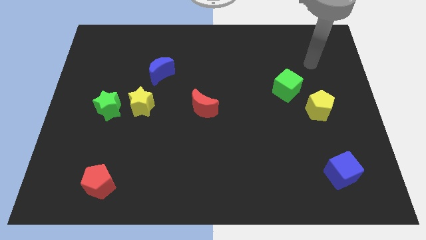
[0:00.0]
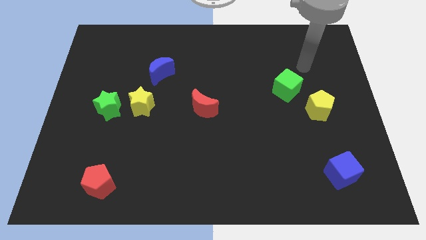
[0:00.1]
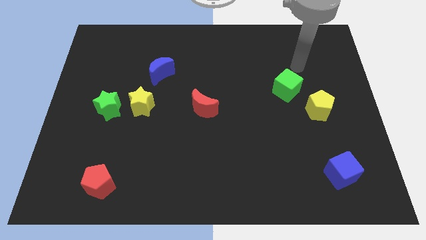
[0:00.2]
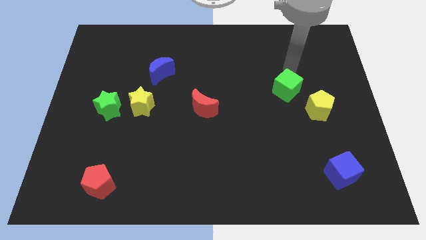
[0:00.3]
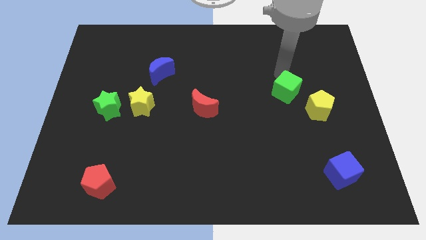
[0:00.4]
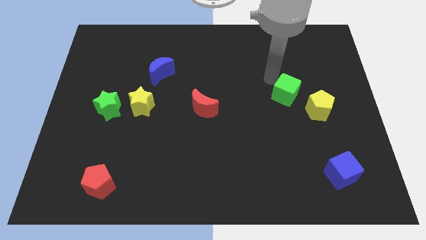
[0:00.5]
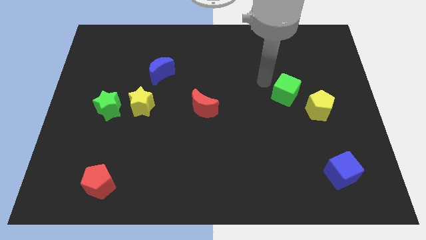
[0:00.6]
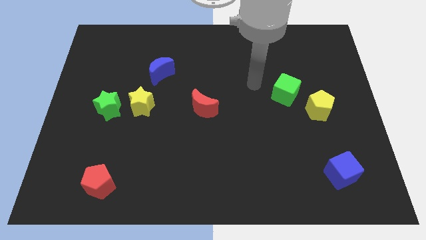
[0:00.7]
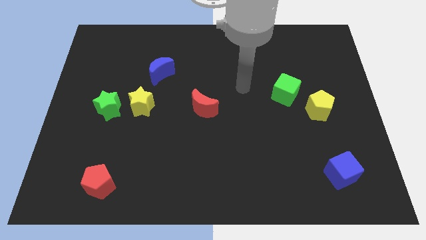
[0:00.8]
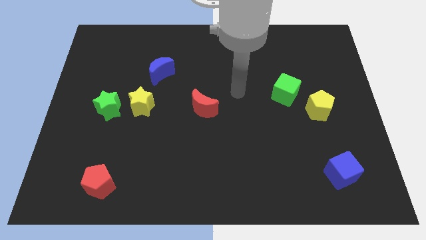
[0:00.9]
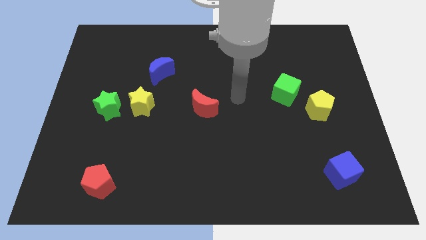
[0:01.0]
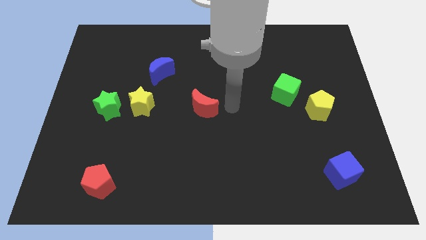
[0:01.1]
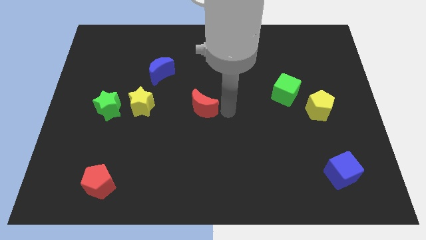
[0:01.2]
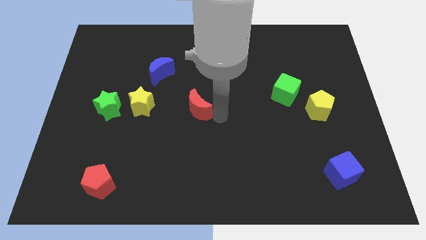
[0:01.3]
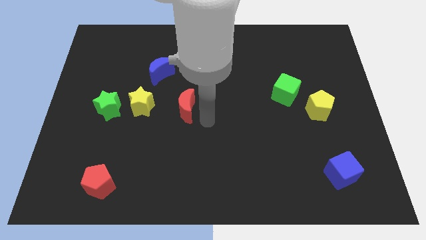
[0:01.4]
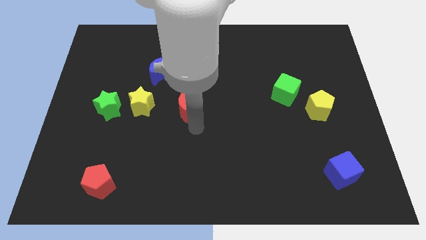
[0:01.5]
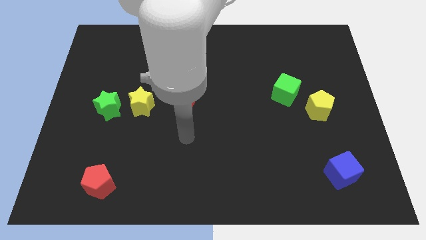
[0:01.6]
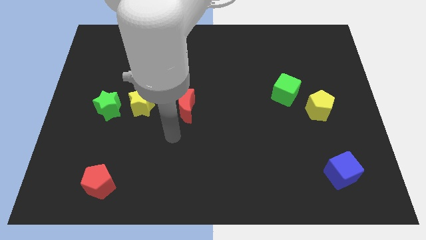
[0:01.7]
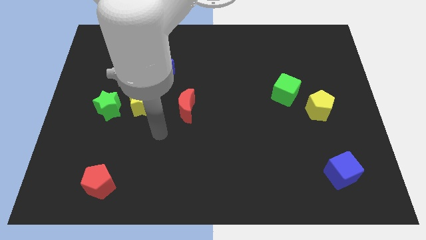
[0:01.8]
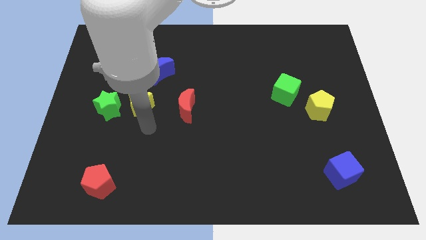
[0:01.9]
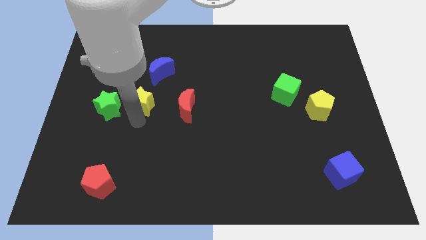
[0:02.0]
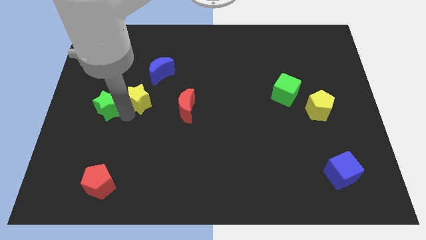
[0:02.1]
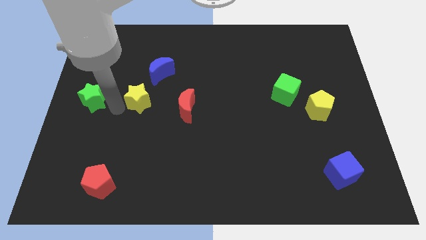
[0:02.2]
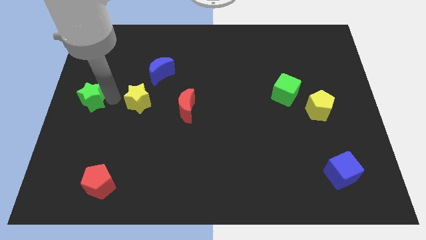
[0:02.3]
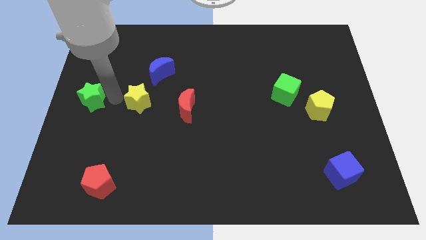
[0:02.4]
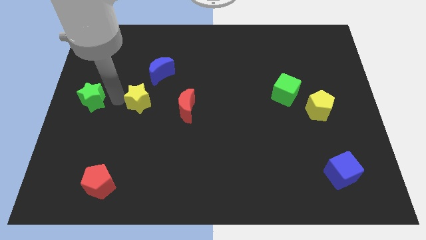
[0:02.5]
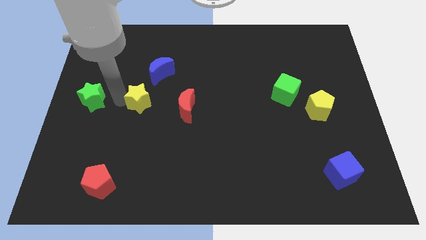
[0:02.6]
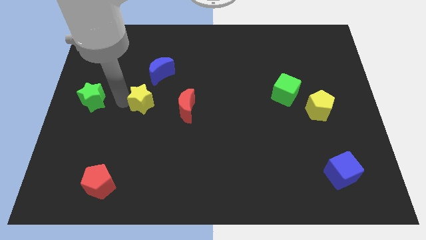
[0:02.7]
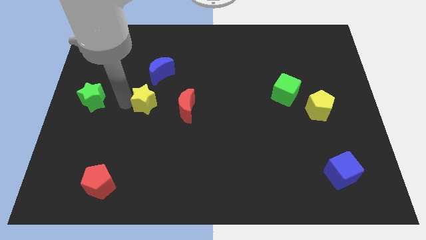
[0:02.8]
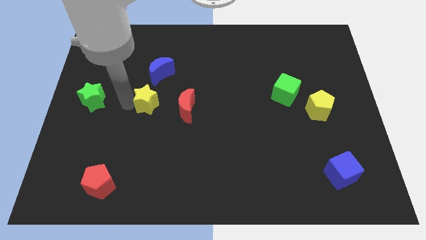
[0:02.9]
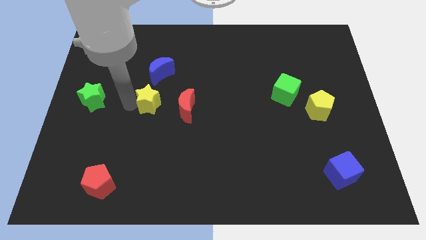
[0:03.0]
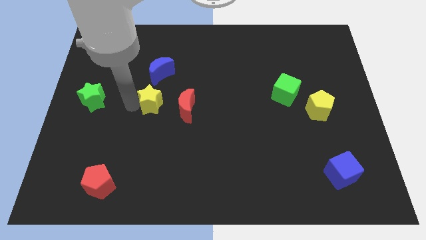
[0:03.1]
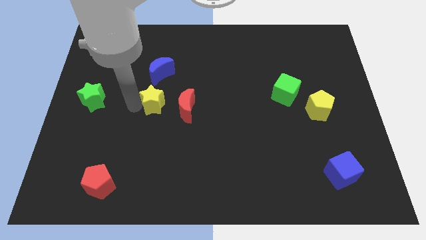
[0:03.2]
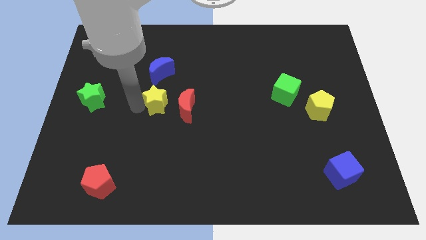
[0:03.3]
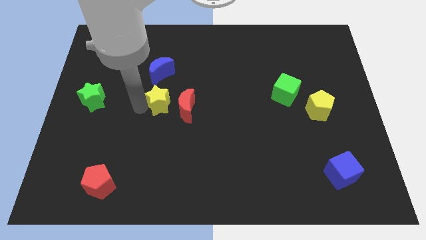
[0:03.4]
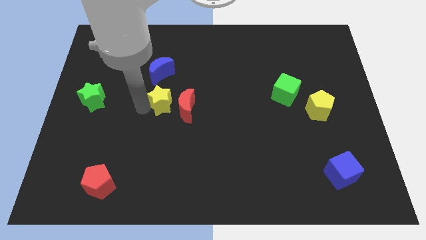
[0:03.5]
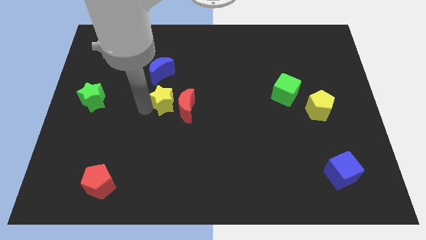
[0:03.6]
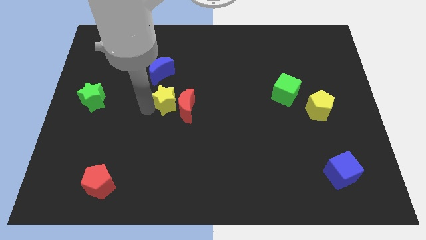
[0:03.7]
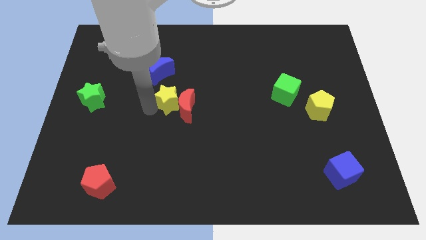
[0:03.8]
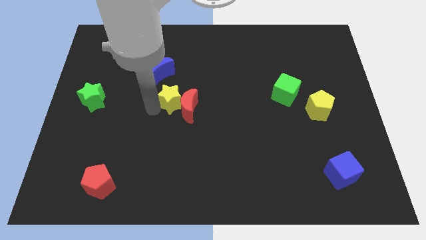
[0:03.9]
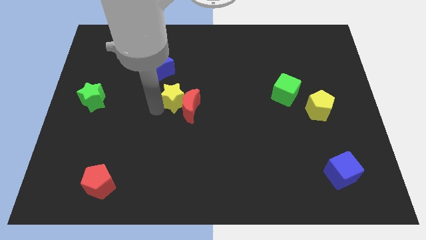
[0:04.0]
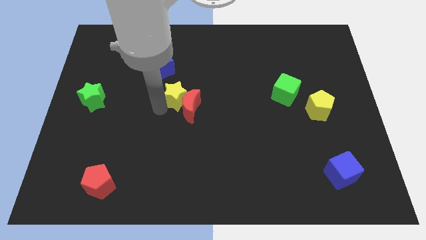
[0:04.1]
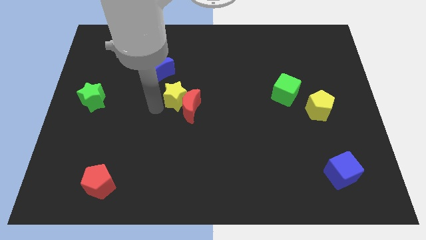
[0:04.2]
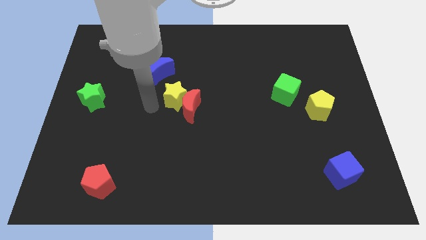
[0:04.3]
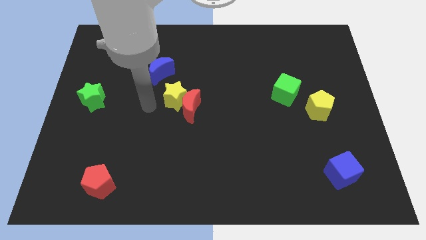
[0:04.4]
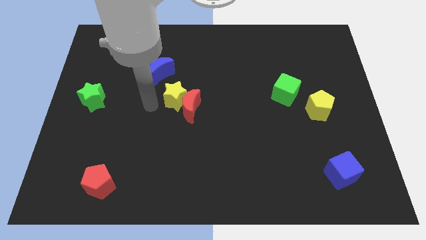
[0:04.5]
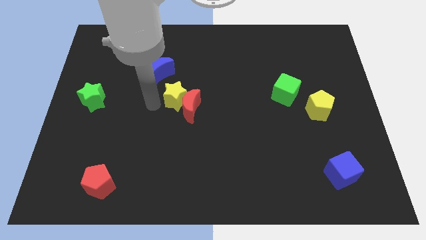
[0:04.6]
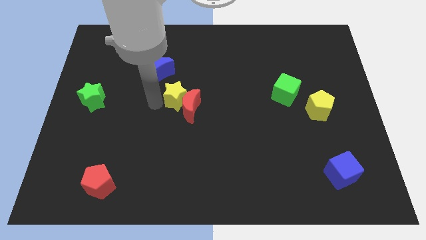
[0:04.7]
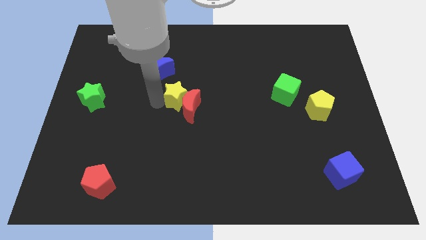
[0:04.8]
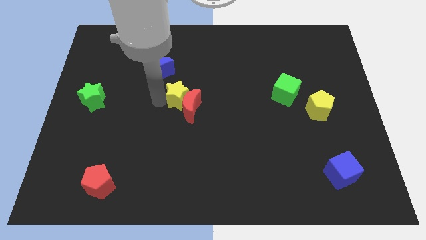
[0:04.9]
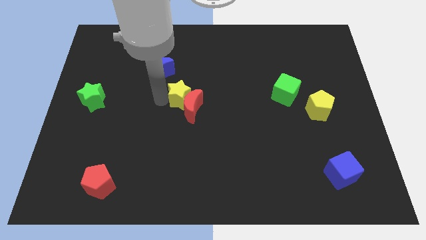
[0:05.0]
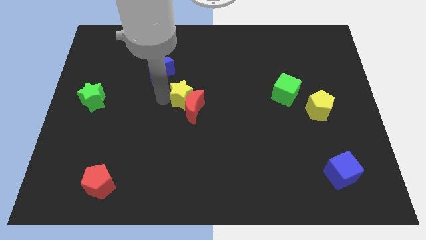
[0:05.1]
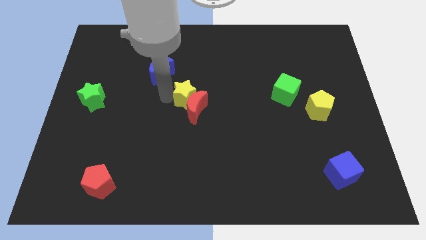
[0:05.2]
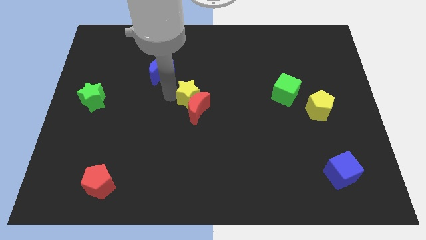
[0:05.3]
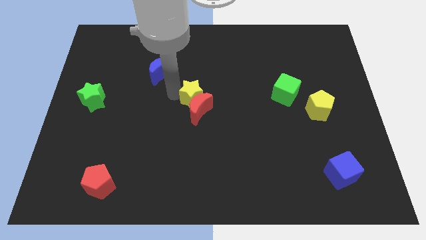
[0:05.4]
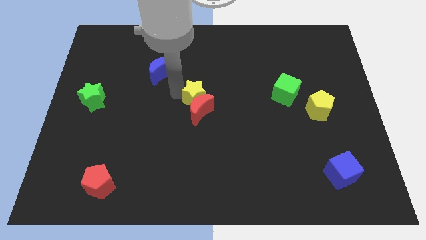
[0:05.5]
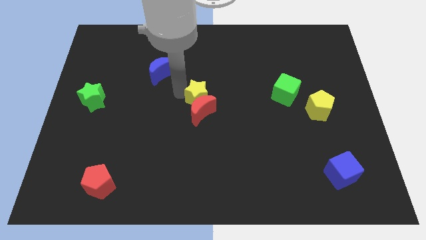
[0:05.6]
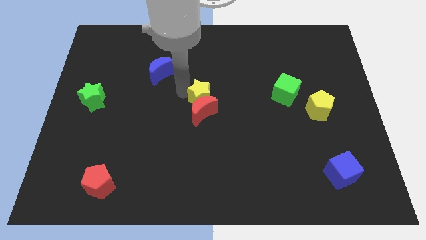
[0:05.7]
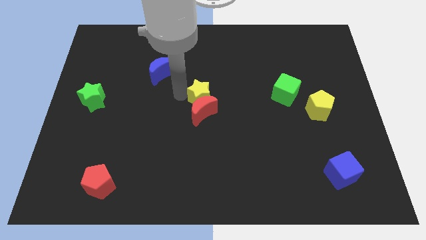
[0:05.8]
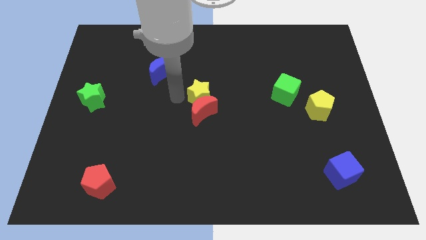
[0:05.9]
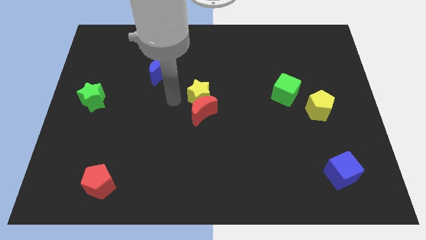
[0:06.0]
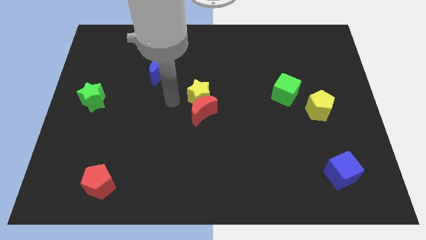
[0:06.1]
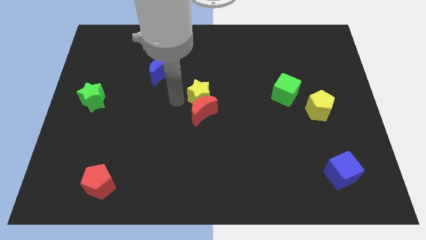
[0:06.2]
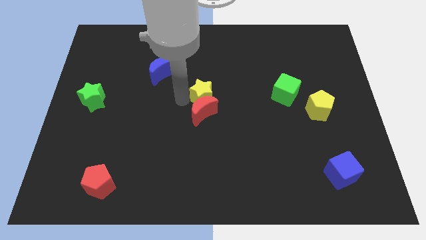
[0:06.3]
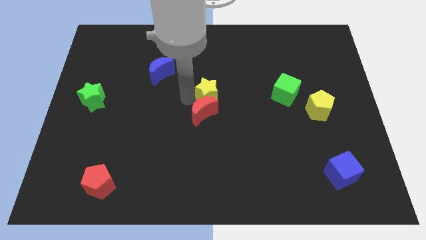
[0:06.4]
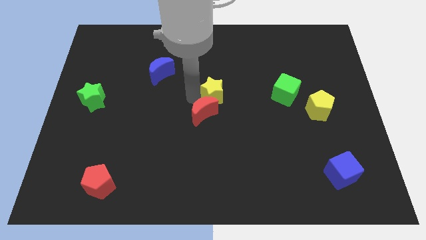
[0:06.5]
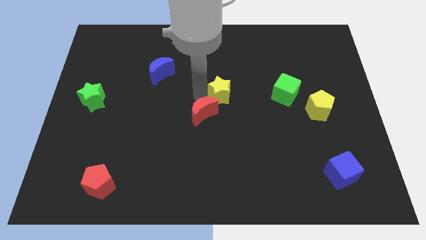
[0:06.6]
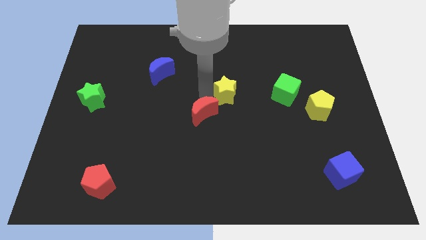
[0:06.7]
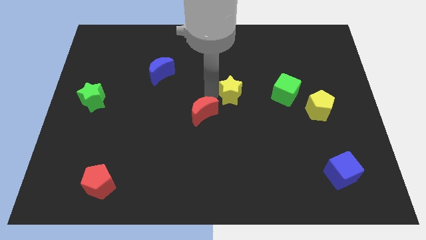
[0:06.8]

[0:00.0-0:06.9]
slide the yellow star to the right

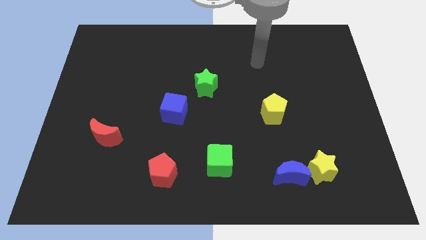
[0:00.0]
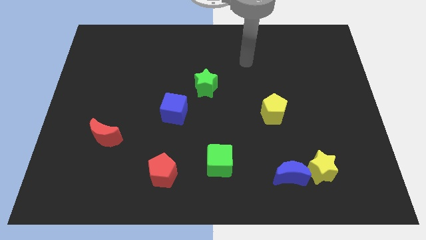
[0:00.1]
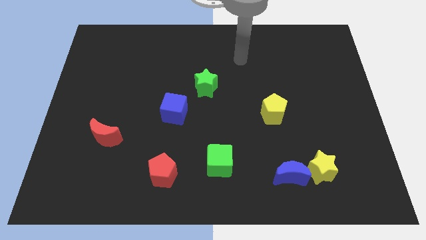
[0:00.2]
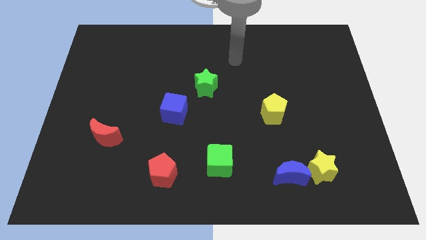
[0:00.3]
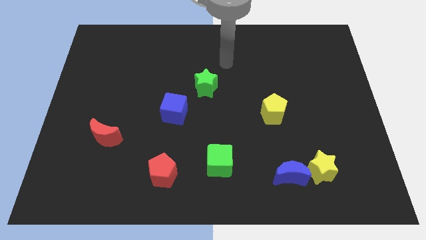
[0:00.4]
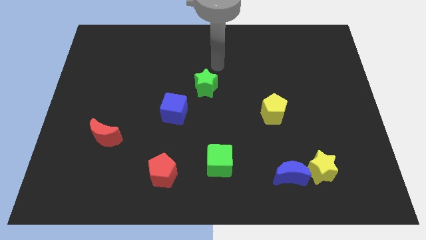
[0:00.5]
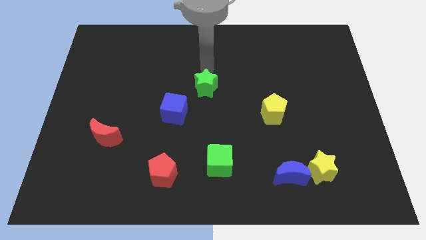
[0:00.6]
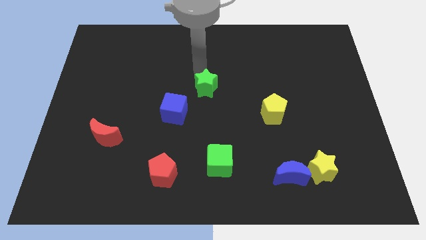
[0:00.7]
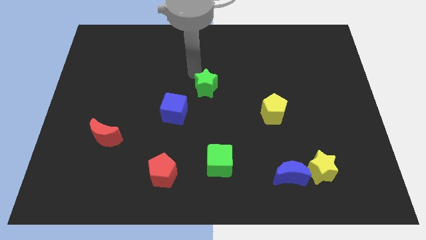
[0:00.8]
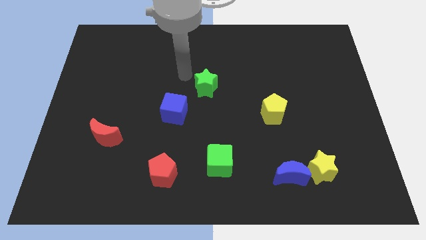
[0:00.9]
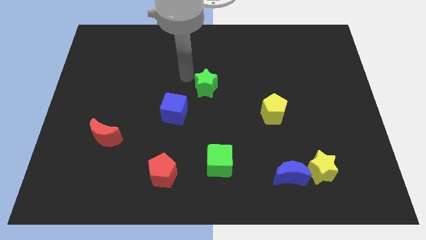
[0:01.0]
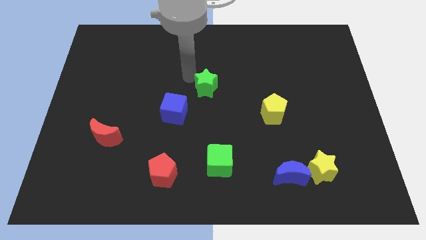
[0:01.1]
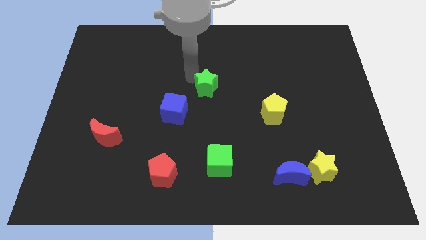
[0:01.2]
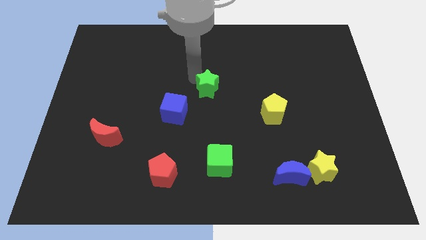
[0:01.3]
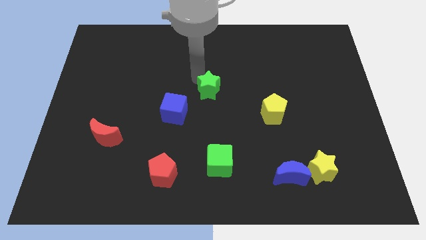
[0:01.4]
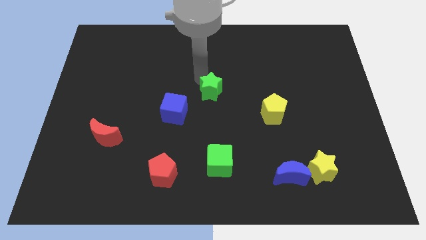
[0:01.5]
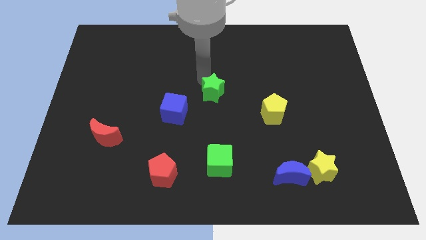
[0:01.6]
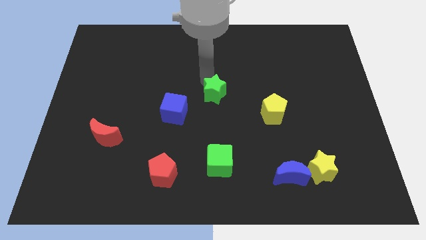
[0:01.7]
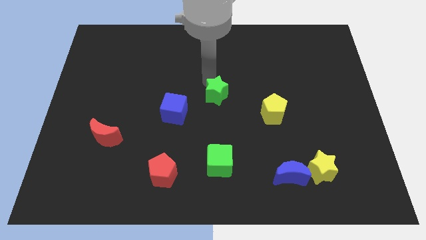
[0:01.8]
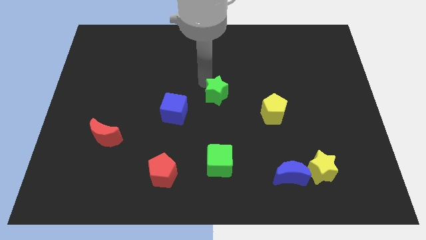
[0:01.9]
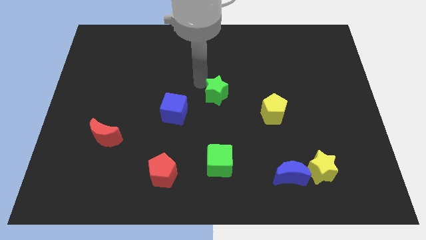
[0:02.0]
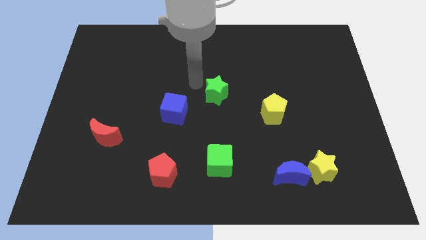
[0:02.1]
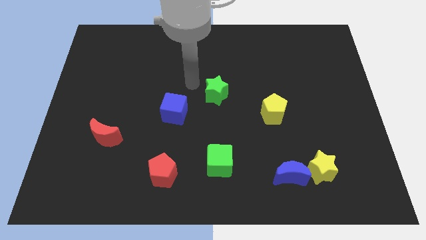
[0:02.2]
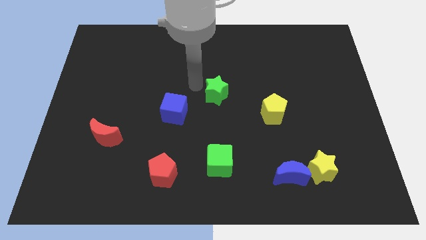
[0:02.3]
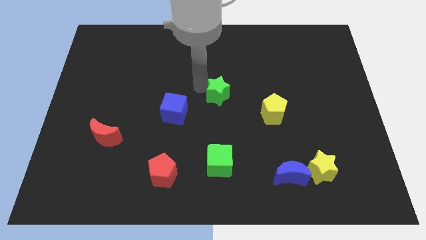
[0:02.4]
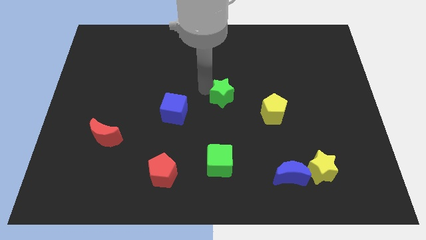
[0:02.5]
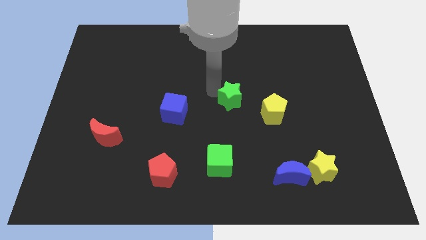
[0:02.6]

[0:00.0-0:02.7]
slide the green star downwards and right somewhat
